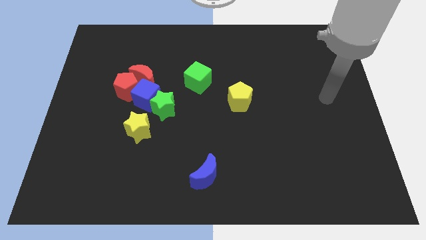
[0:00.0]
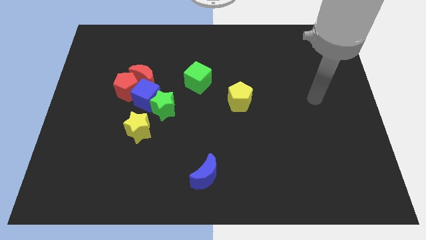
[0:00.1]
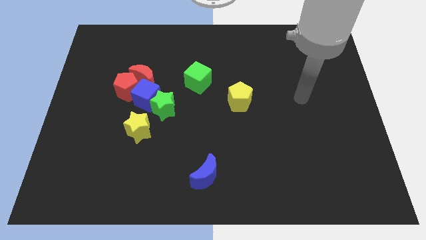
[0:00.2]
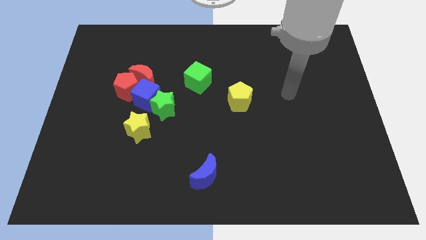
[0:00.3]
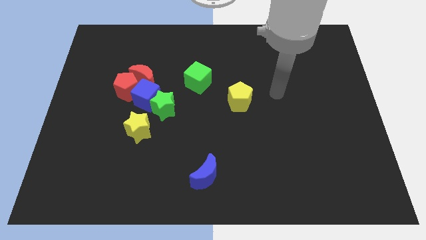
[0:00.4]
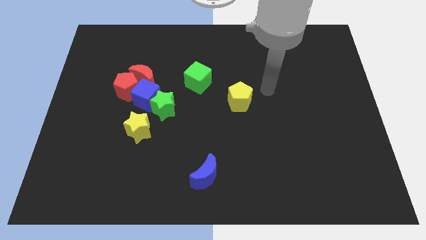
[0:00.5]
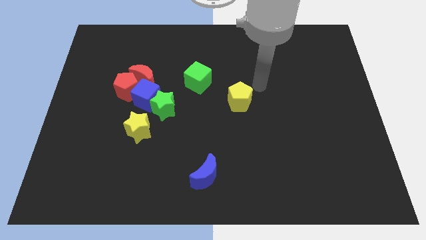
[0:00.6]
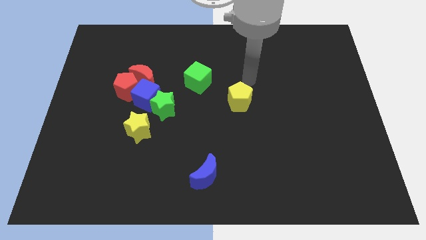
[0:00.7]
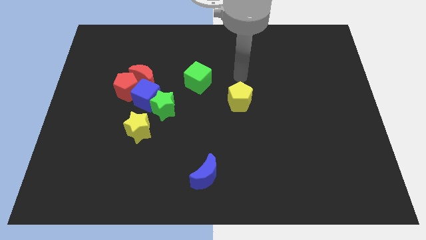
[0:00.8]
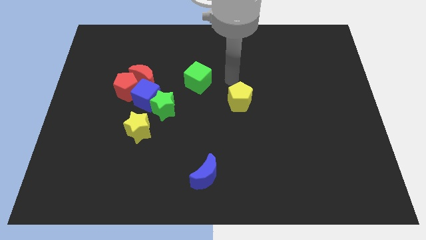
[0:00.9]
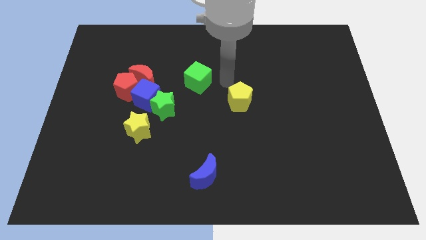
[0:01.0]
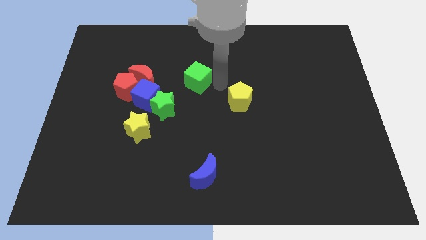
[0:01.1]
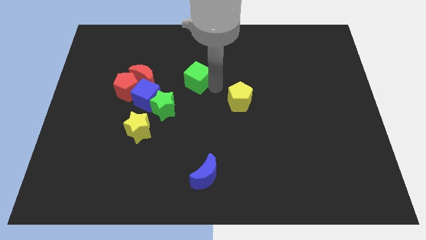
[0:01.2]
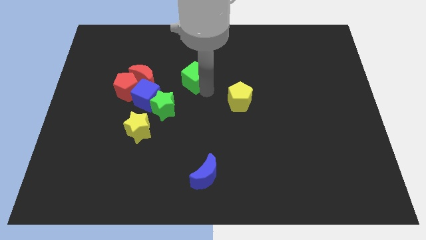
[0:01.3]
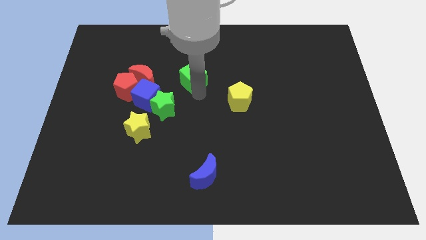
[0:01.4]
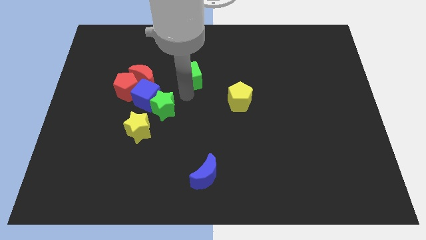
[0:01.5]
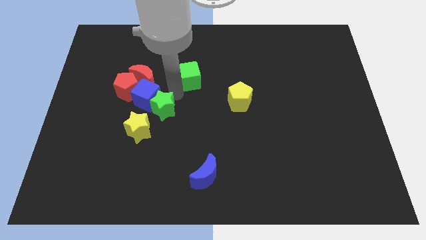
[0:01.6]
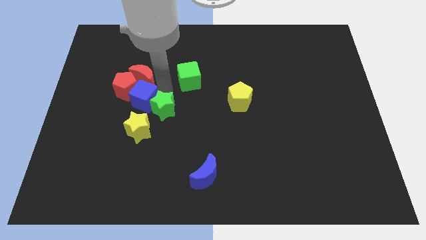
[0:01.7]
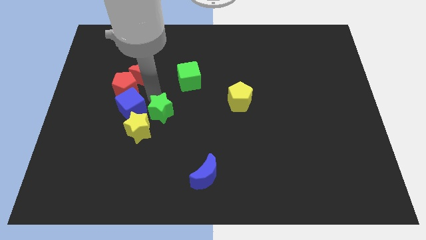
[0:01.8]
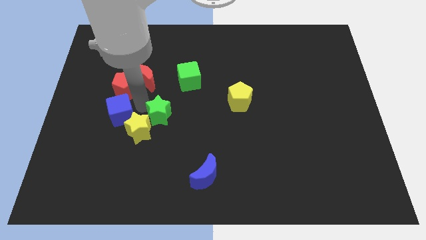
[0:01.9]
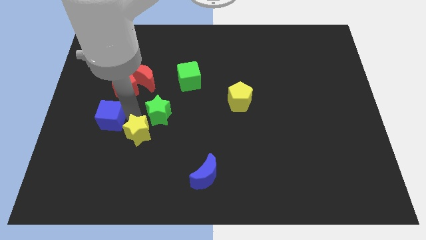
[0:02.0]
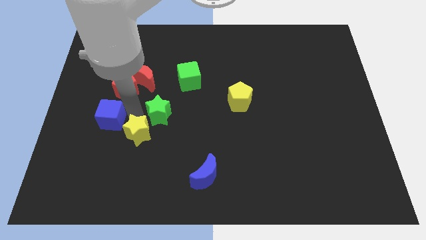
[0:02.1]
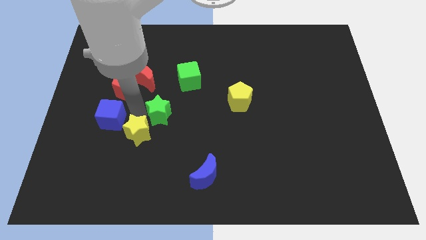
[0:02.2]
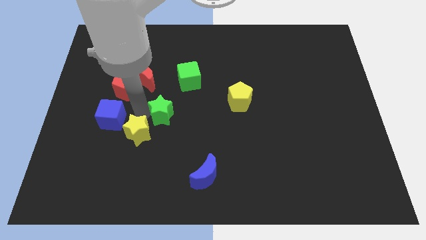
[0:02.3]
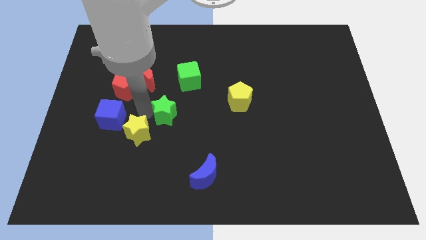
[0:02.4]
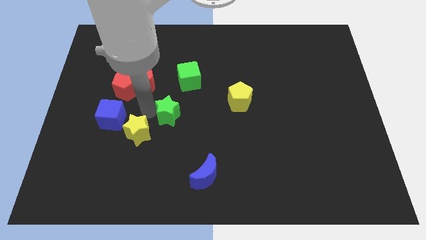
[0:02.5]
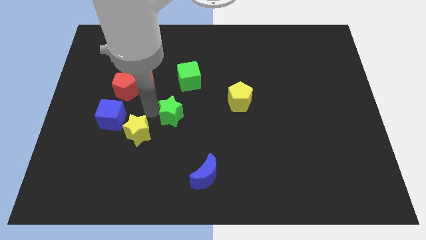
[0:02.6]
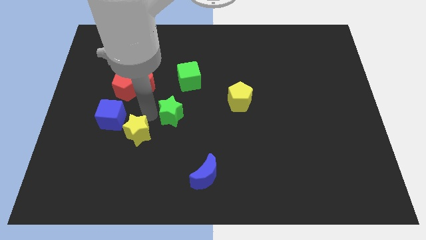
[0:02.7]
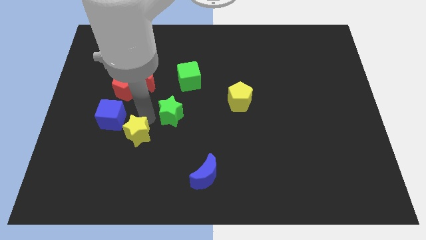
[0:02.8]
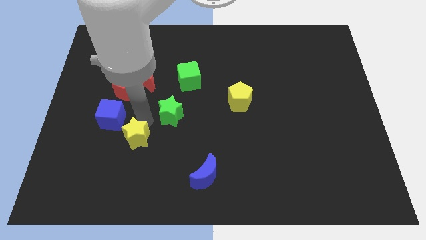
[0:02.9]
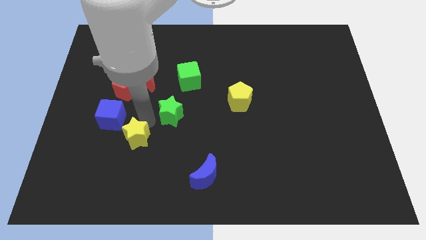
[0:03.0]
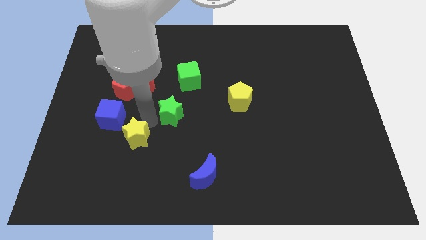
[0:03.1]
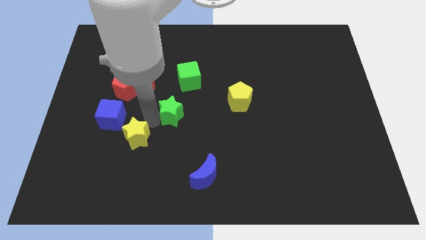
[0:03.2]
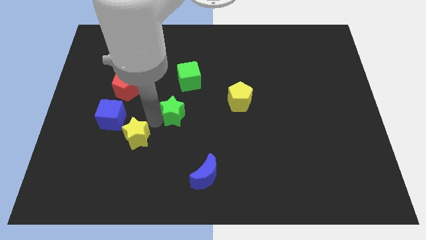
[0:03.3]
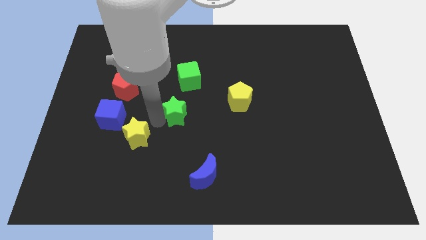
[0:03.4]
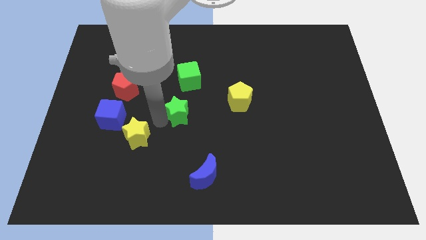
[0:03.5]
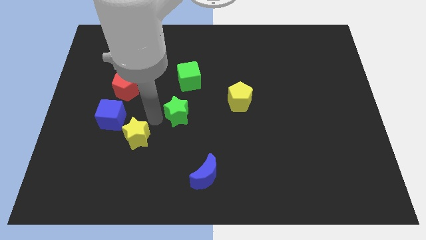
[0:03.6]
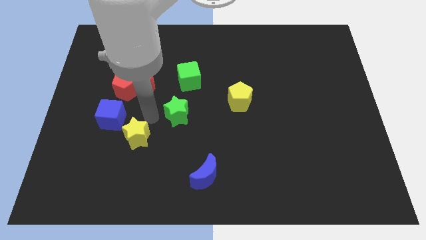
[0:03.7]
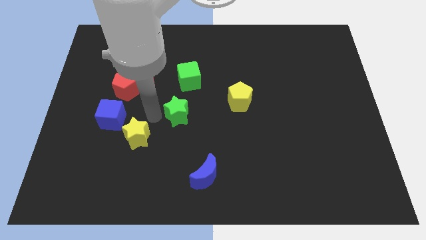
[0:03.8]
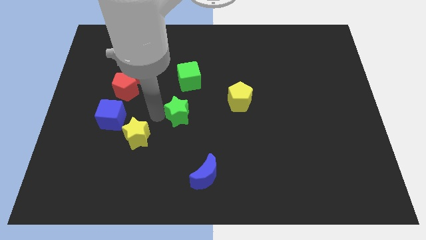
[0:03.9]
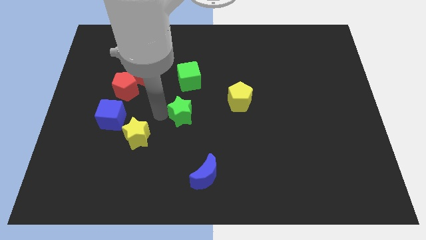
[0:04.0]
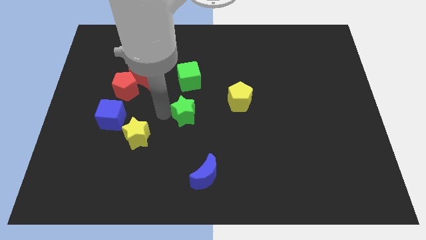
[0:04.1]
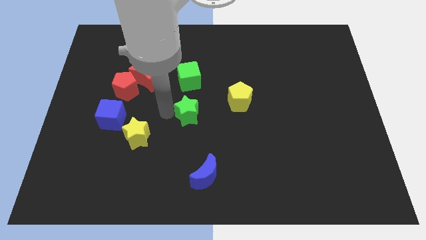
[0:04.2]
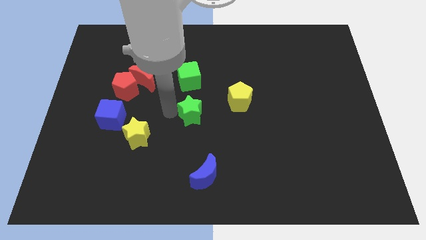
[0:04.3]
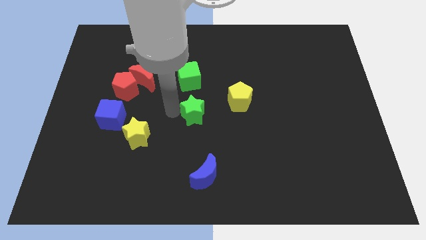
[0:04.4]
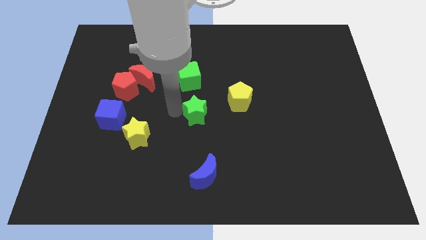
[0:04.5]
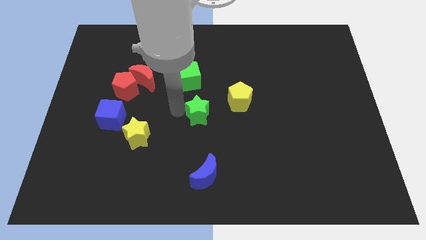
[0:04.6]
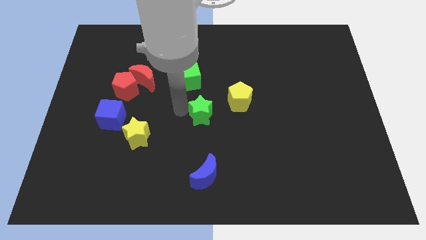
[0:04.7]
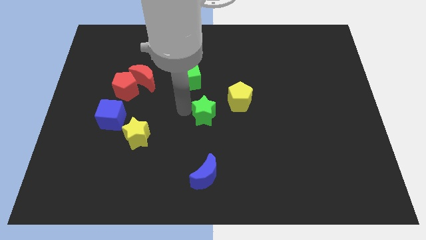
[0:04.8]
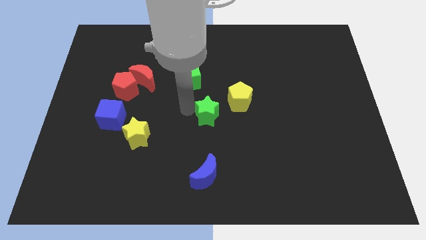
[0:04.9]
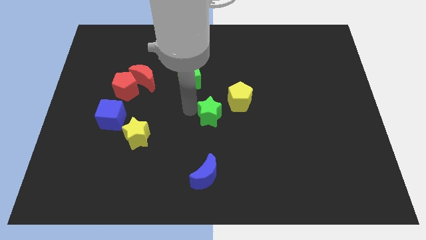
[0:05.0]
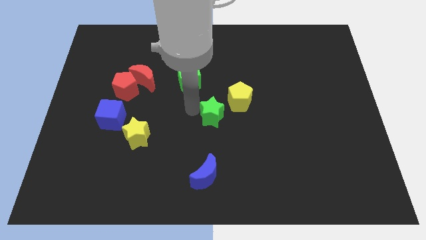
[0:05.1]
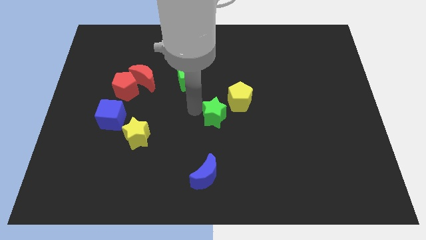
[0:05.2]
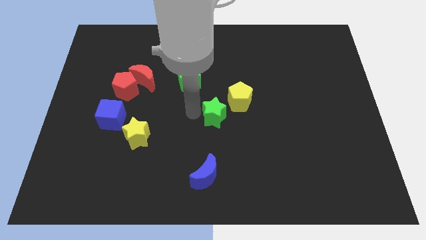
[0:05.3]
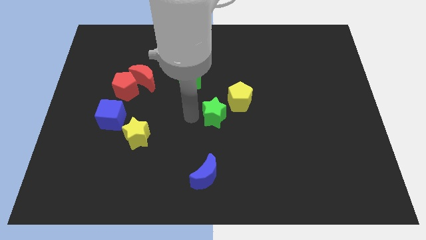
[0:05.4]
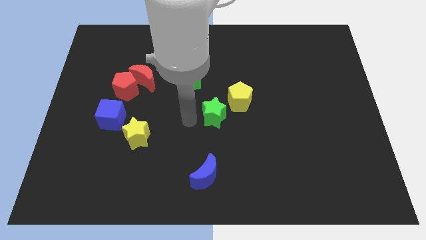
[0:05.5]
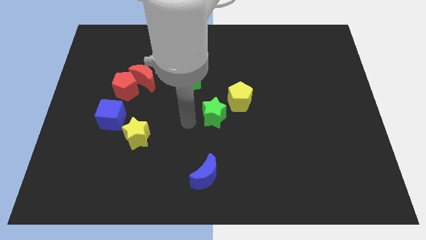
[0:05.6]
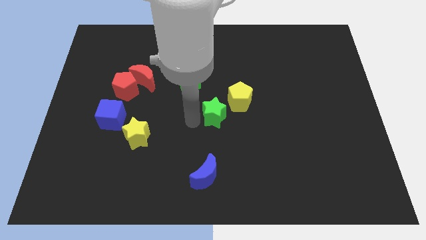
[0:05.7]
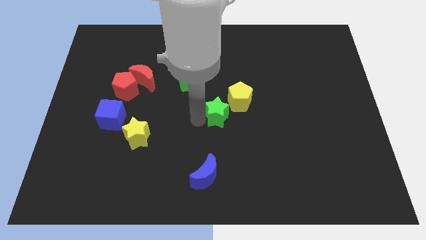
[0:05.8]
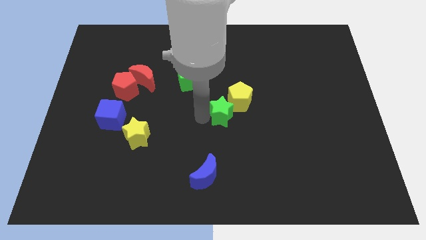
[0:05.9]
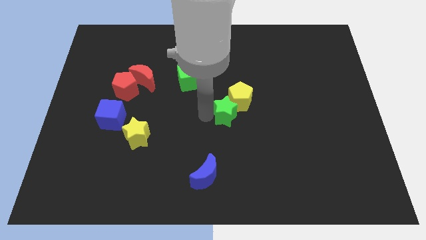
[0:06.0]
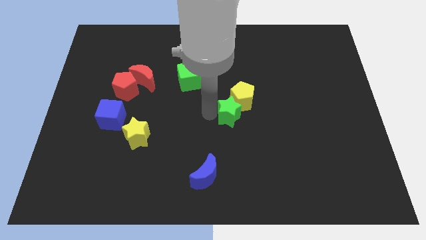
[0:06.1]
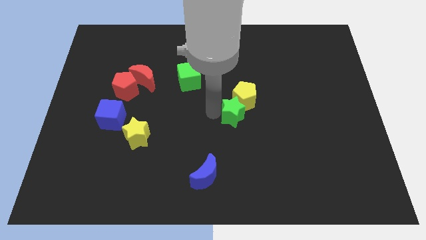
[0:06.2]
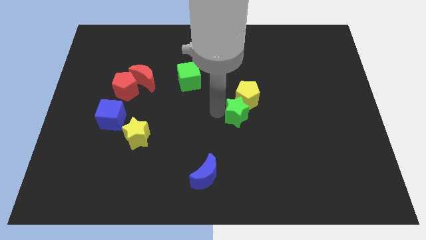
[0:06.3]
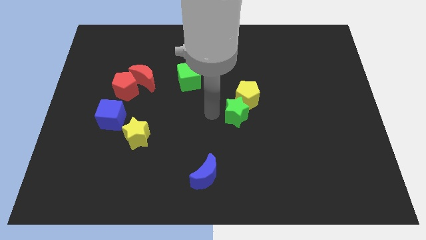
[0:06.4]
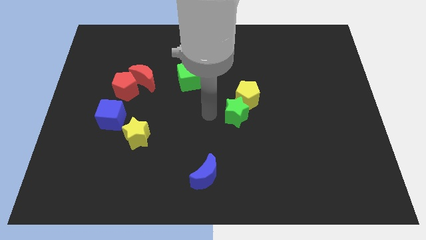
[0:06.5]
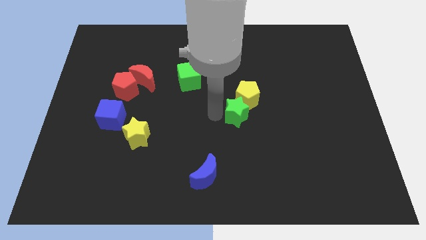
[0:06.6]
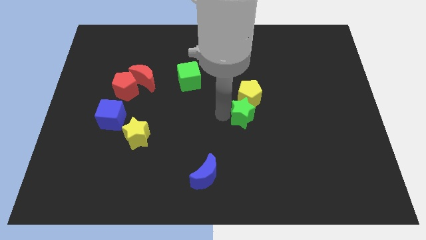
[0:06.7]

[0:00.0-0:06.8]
put the green star diagonally down and to the right of the yellow pentagon
